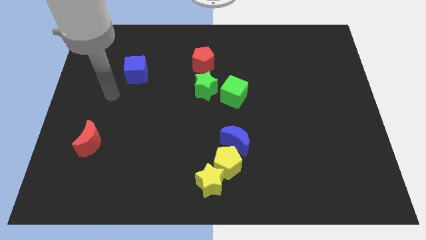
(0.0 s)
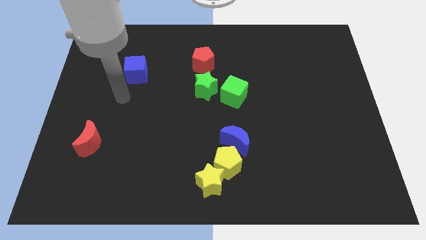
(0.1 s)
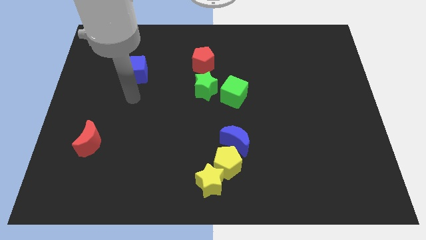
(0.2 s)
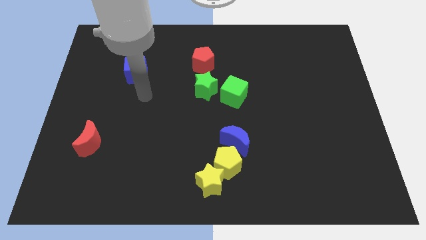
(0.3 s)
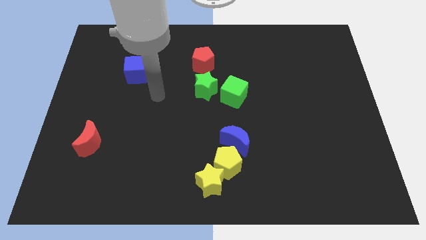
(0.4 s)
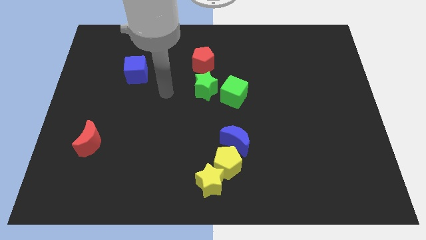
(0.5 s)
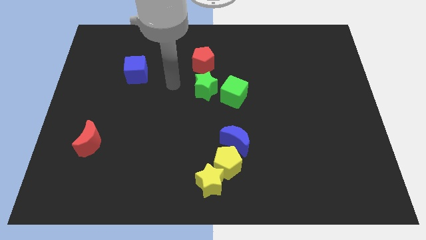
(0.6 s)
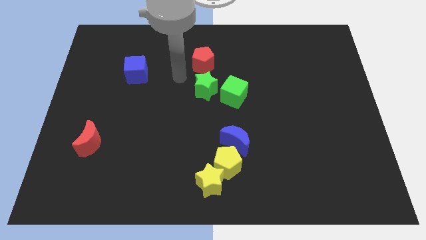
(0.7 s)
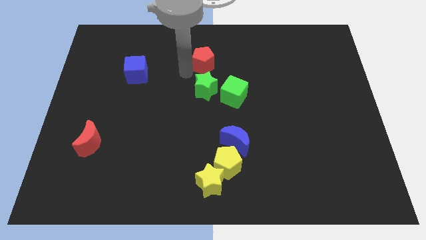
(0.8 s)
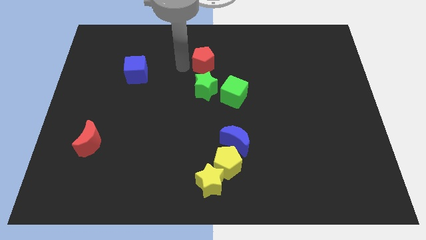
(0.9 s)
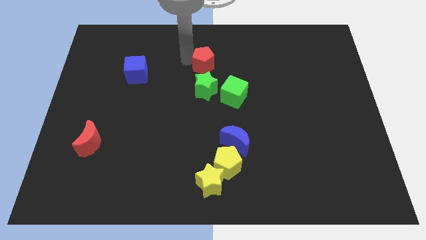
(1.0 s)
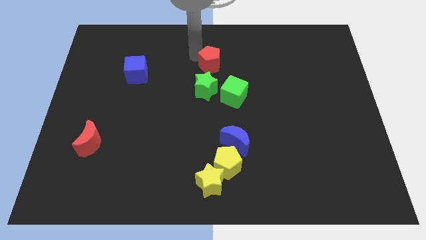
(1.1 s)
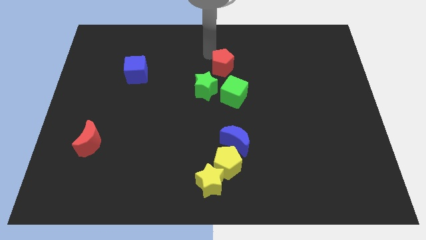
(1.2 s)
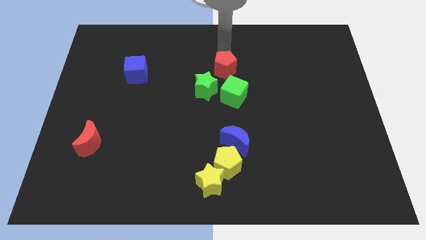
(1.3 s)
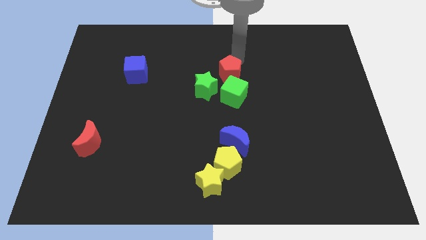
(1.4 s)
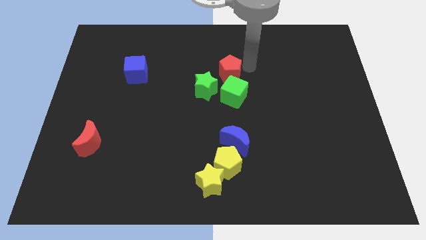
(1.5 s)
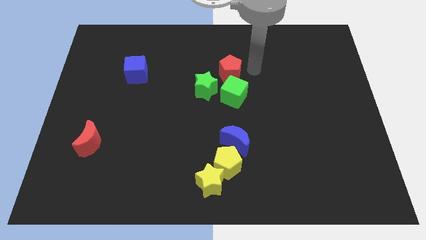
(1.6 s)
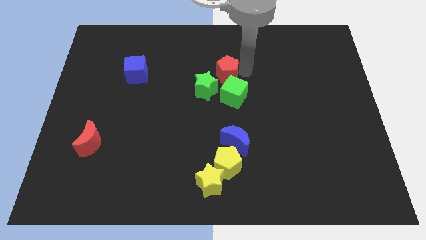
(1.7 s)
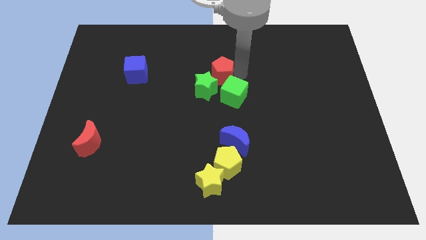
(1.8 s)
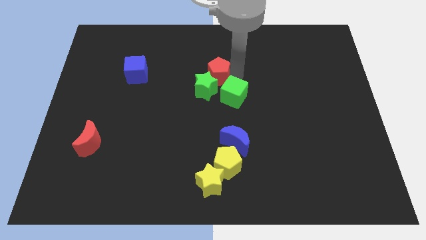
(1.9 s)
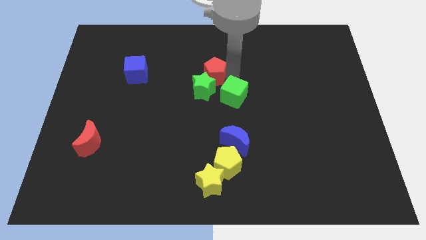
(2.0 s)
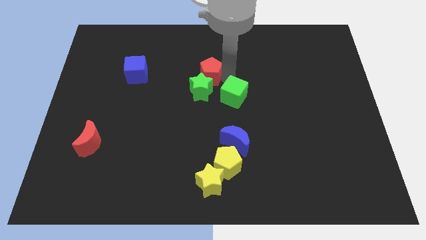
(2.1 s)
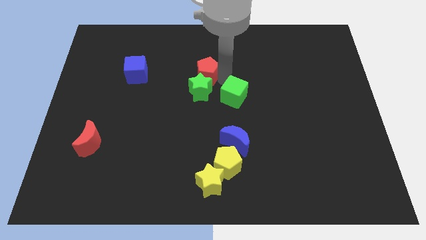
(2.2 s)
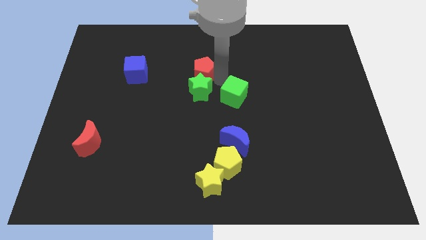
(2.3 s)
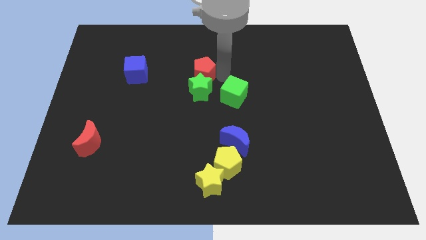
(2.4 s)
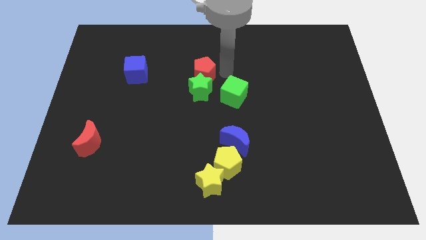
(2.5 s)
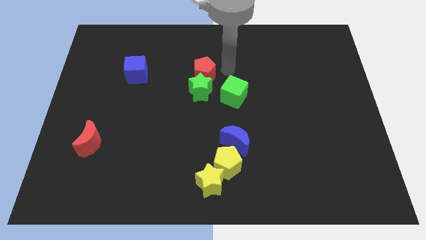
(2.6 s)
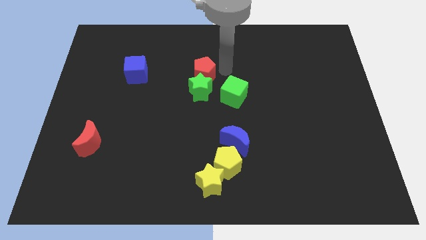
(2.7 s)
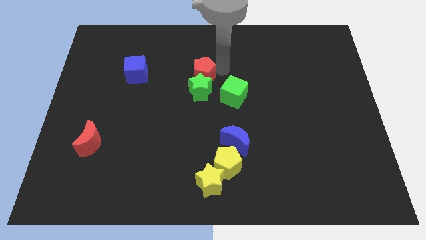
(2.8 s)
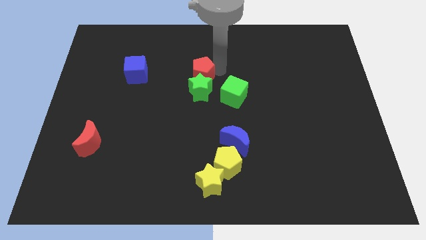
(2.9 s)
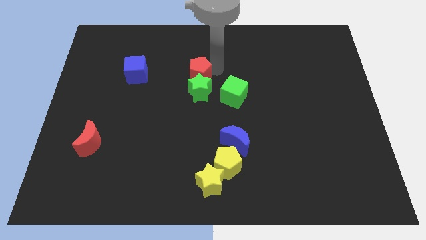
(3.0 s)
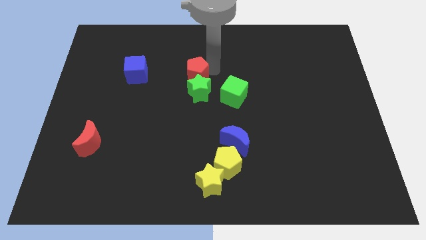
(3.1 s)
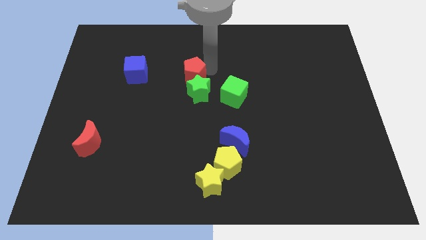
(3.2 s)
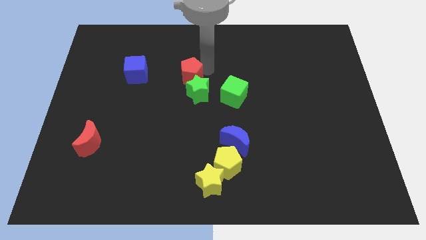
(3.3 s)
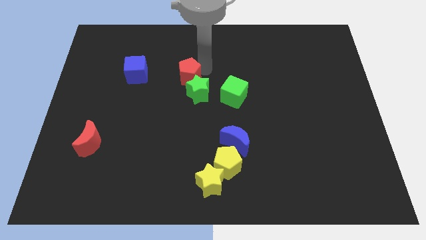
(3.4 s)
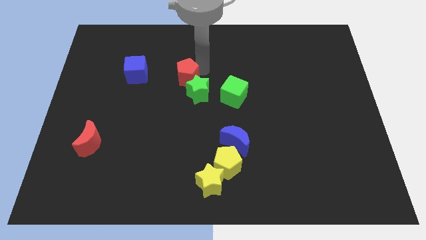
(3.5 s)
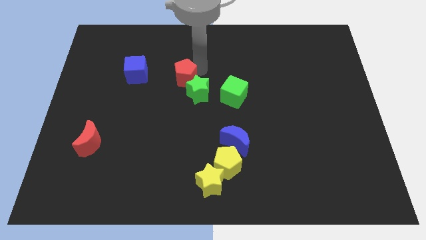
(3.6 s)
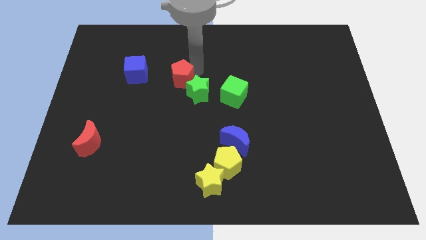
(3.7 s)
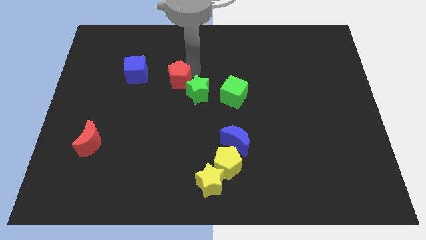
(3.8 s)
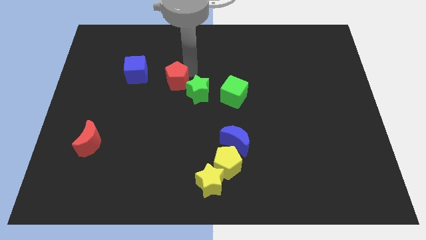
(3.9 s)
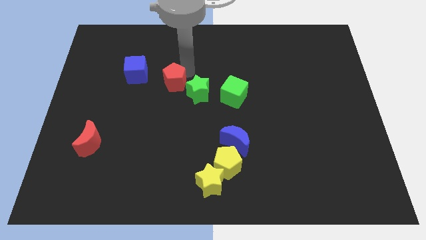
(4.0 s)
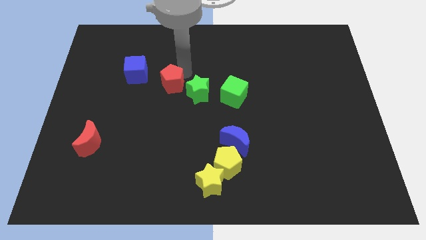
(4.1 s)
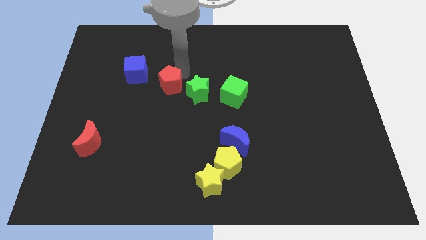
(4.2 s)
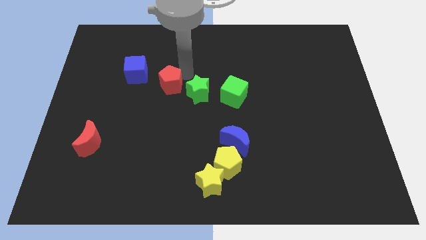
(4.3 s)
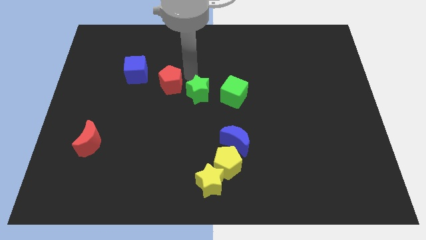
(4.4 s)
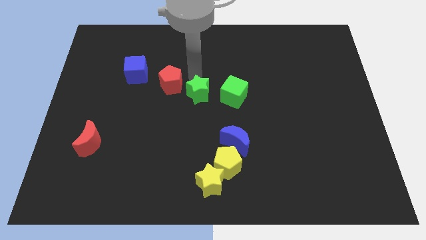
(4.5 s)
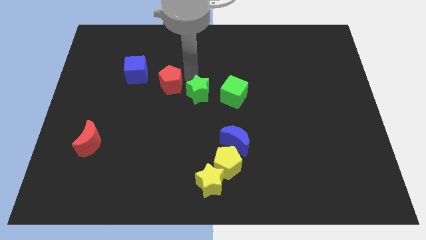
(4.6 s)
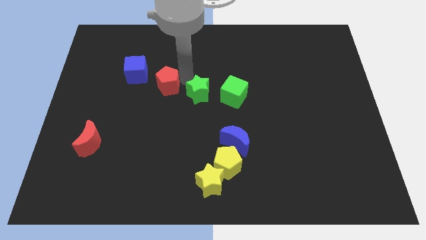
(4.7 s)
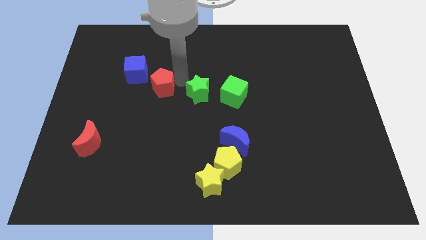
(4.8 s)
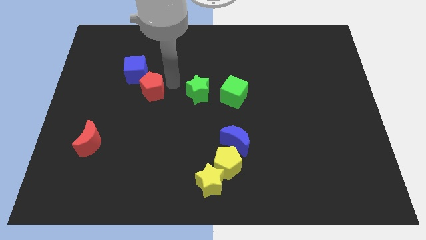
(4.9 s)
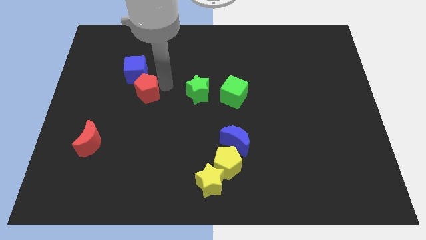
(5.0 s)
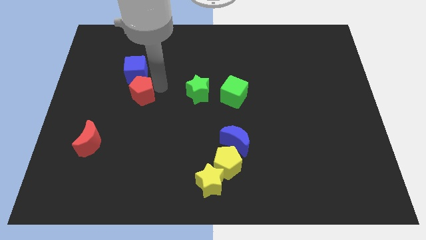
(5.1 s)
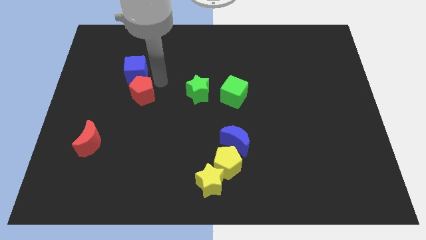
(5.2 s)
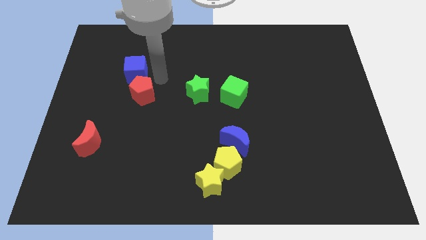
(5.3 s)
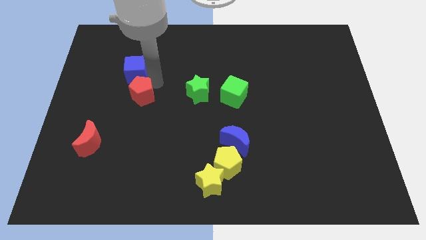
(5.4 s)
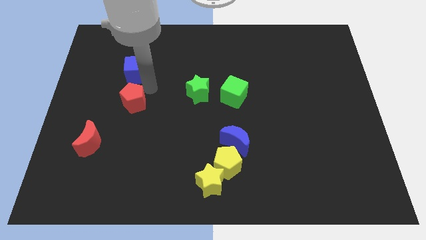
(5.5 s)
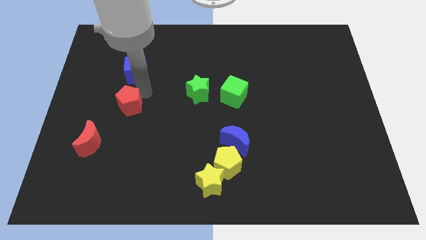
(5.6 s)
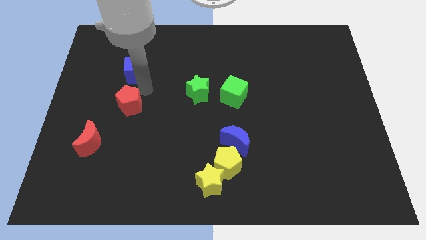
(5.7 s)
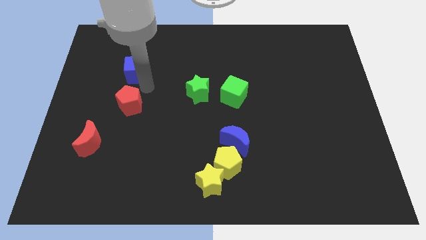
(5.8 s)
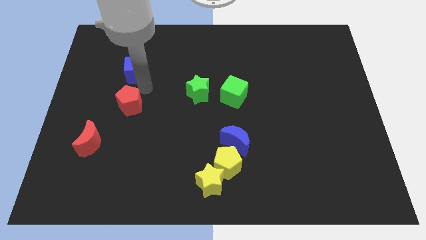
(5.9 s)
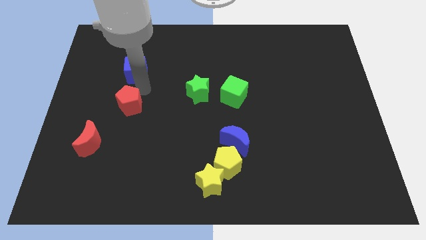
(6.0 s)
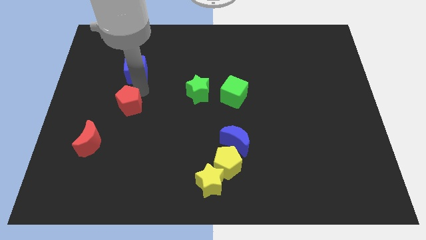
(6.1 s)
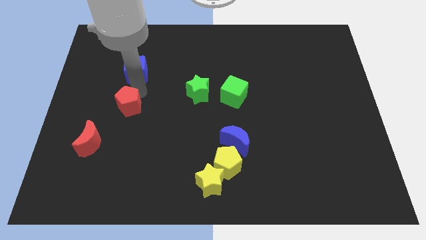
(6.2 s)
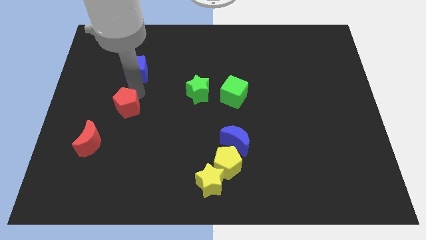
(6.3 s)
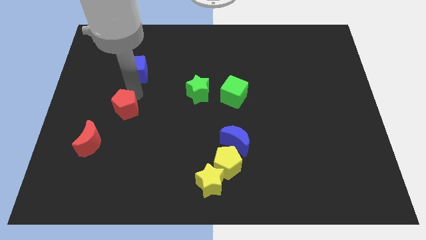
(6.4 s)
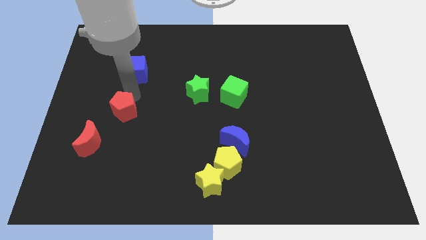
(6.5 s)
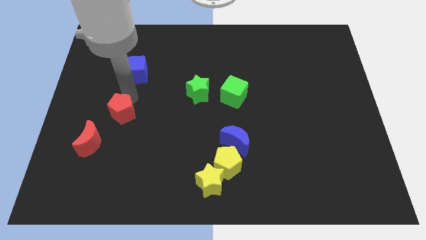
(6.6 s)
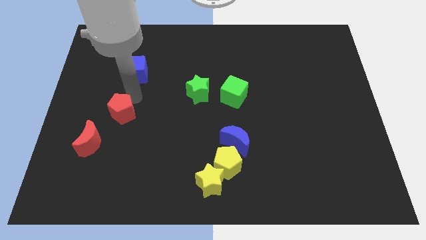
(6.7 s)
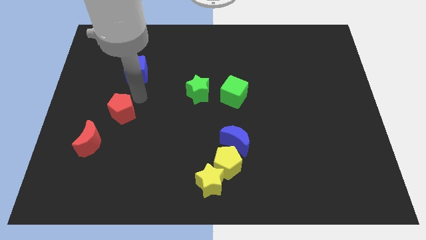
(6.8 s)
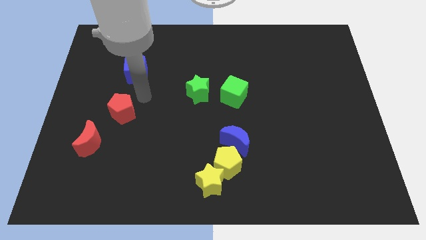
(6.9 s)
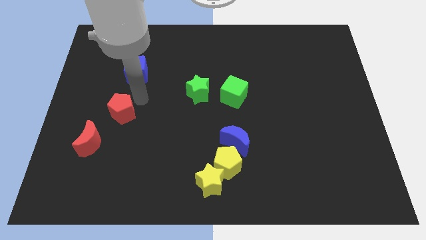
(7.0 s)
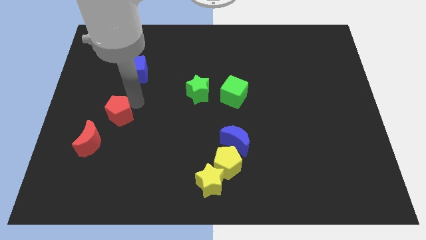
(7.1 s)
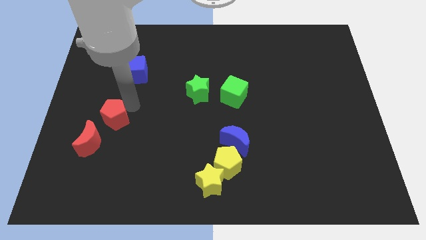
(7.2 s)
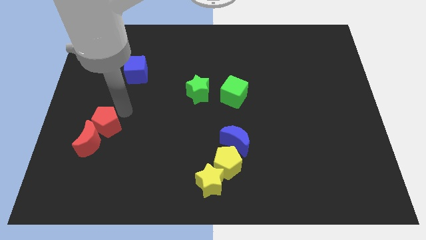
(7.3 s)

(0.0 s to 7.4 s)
slide the red pentagon next to the red moon
